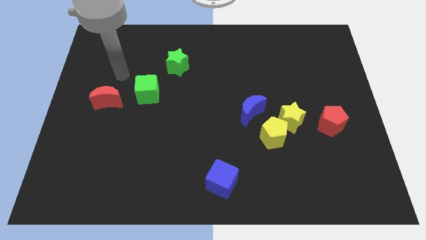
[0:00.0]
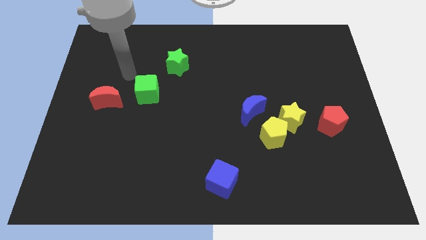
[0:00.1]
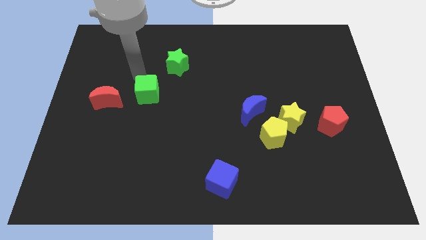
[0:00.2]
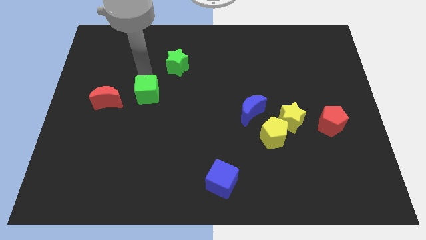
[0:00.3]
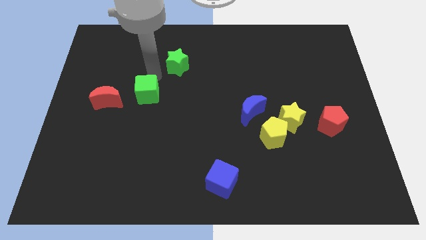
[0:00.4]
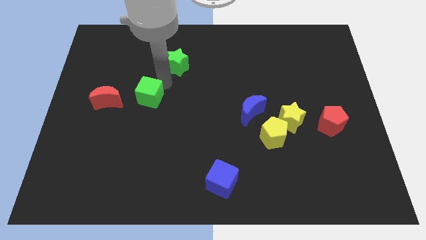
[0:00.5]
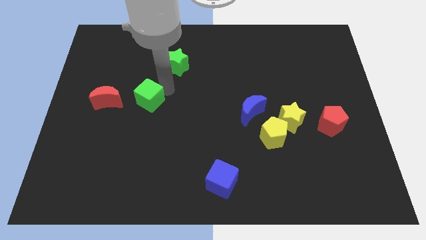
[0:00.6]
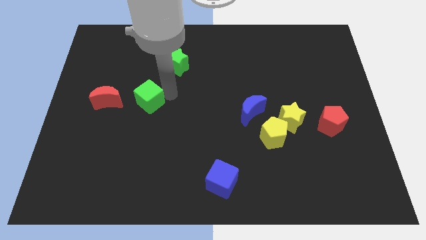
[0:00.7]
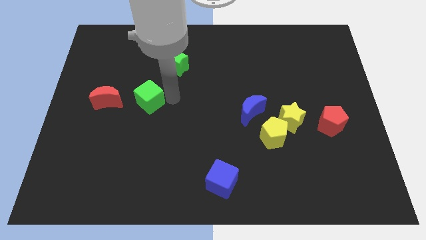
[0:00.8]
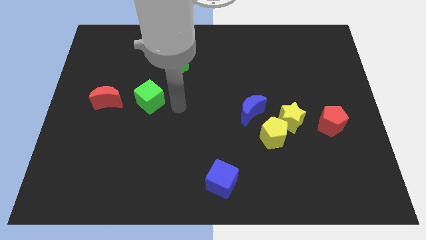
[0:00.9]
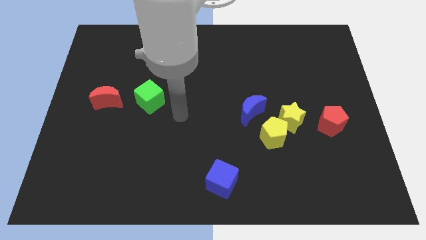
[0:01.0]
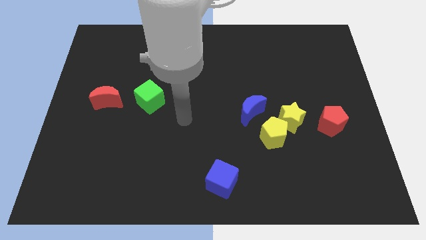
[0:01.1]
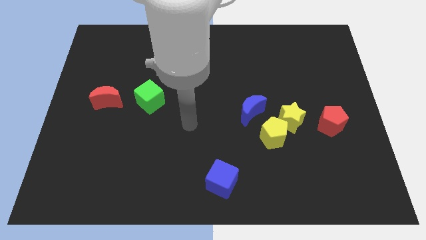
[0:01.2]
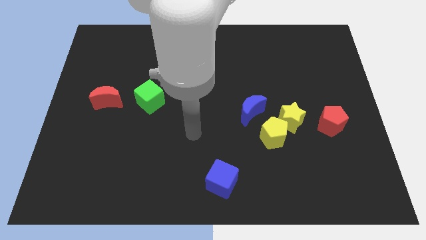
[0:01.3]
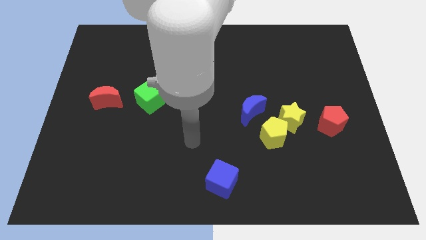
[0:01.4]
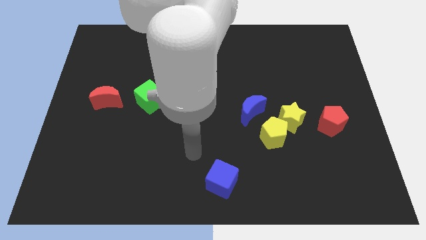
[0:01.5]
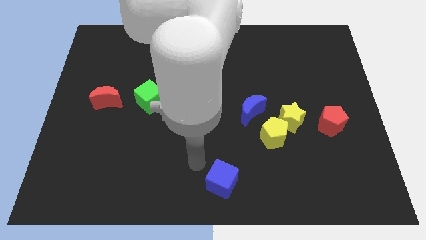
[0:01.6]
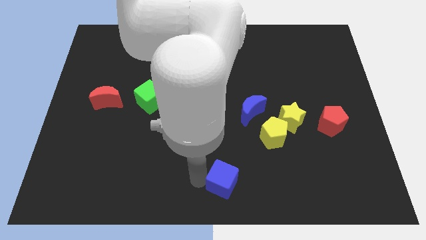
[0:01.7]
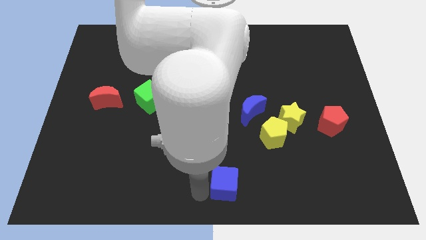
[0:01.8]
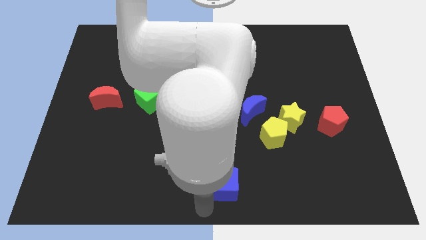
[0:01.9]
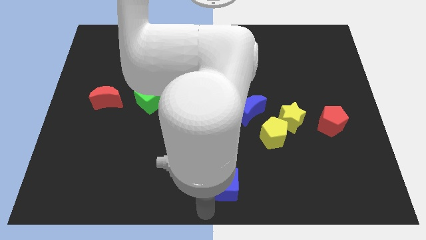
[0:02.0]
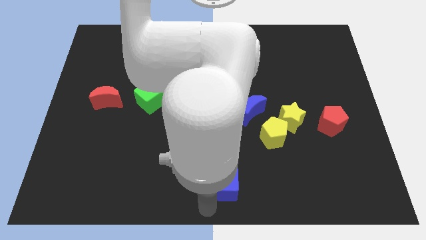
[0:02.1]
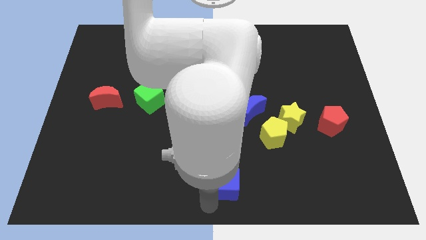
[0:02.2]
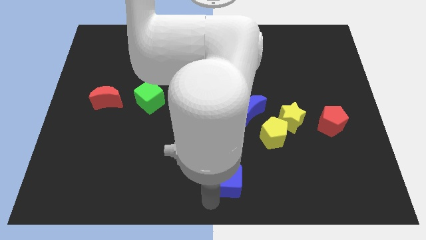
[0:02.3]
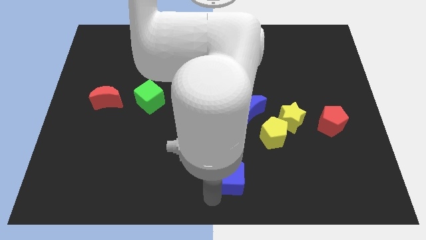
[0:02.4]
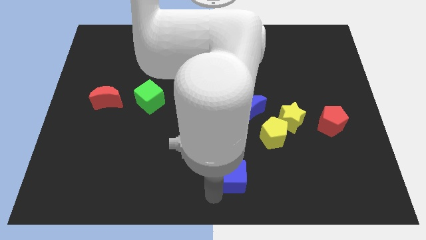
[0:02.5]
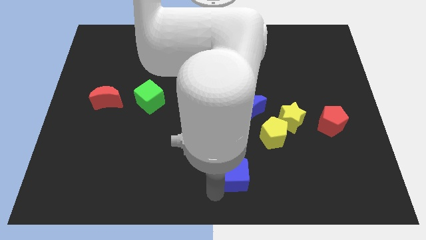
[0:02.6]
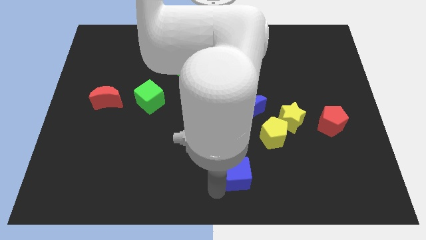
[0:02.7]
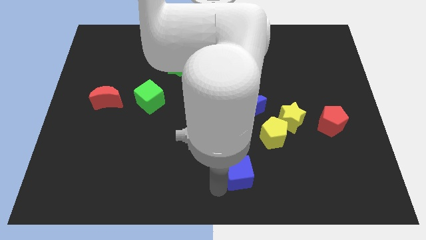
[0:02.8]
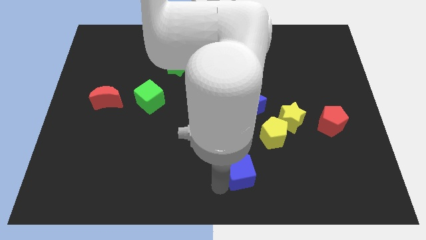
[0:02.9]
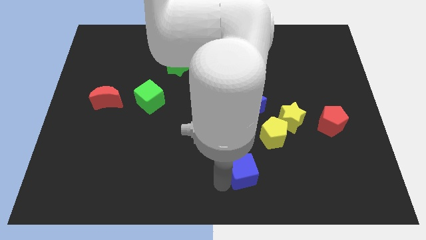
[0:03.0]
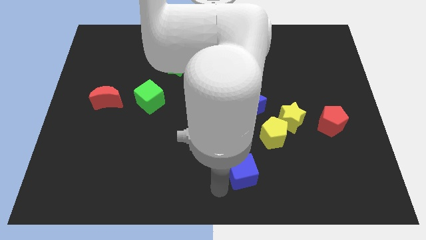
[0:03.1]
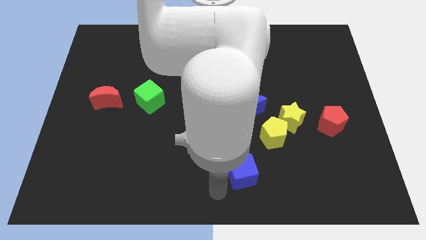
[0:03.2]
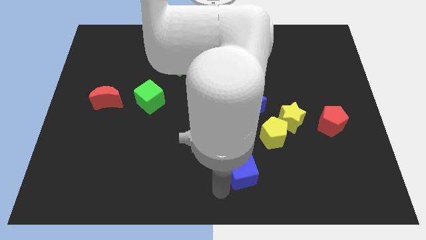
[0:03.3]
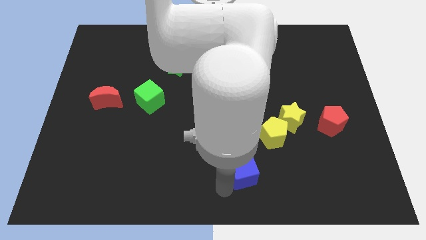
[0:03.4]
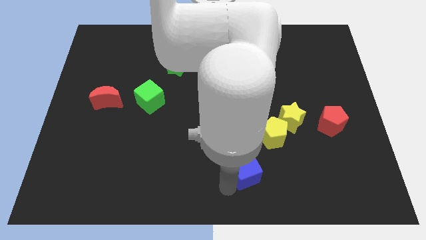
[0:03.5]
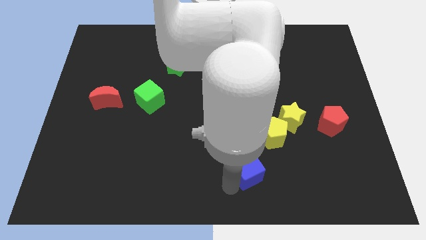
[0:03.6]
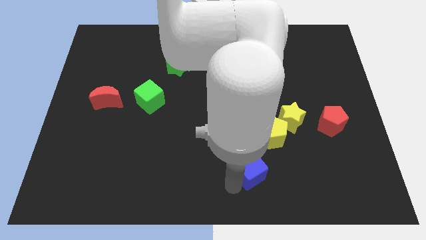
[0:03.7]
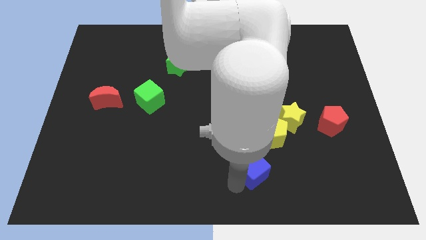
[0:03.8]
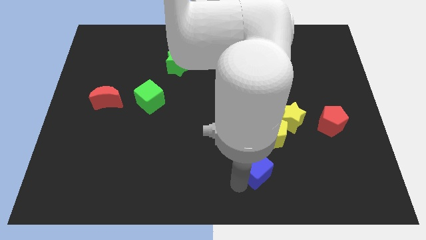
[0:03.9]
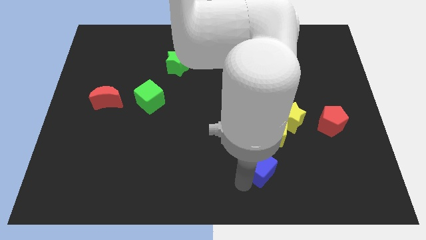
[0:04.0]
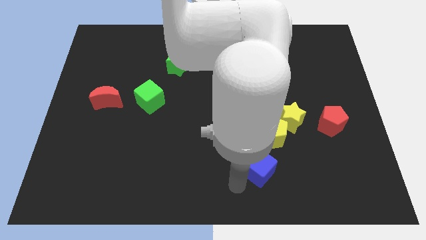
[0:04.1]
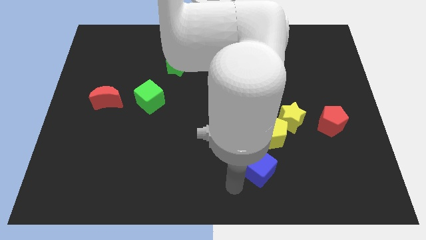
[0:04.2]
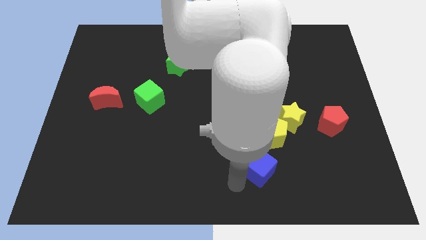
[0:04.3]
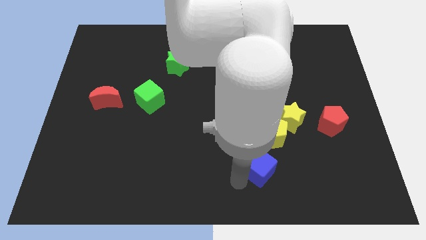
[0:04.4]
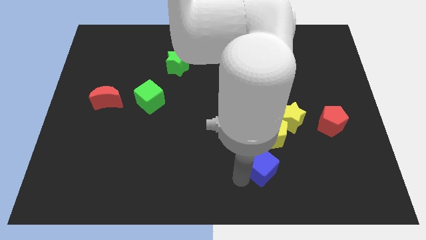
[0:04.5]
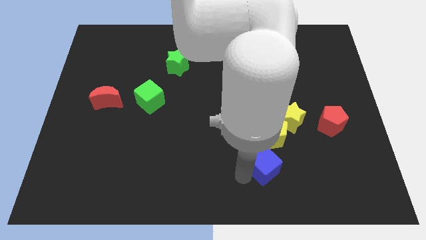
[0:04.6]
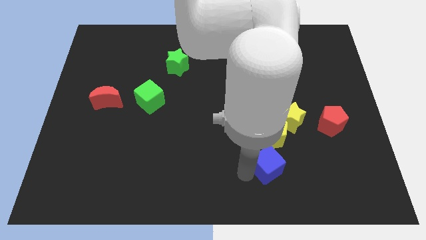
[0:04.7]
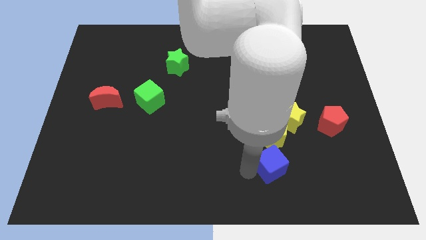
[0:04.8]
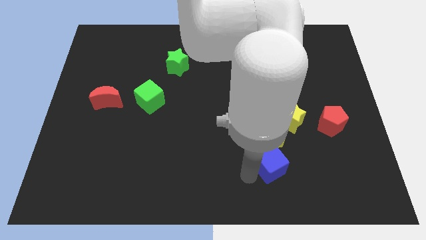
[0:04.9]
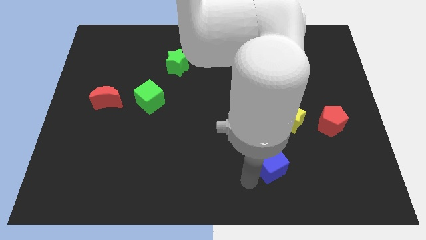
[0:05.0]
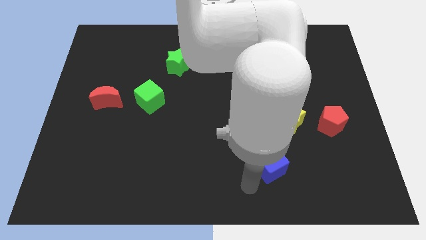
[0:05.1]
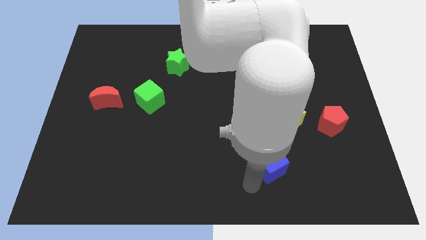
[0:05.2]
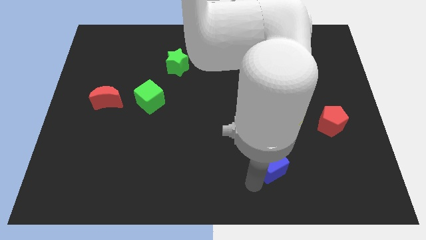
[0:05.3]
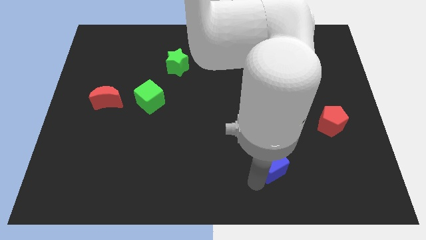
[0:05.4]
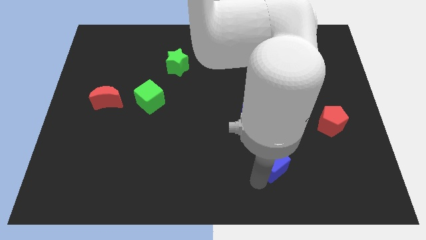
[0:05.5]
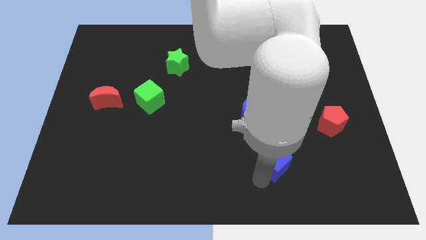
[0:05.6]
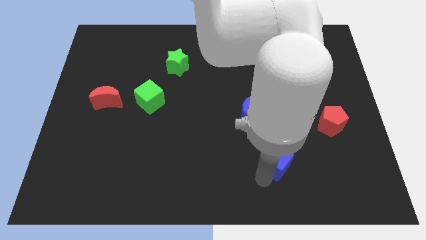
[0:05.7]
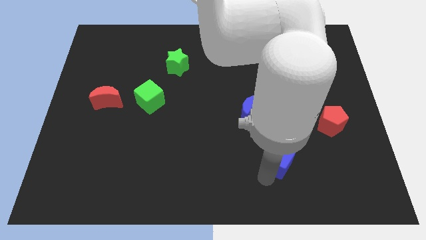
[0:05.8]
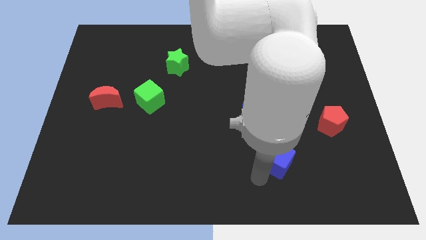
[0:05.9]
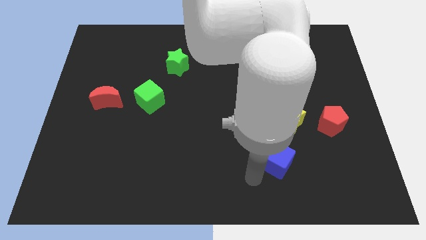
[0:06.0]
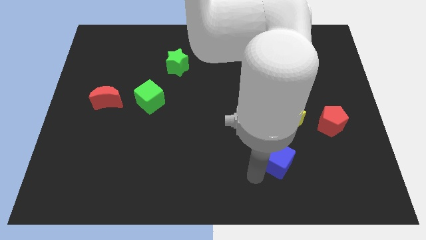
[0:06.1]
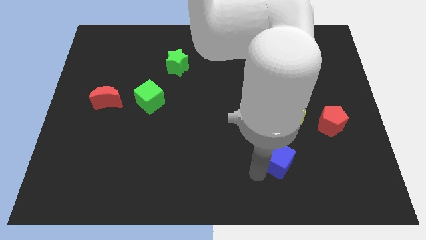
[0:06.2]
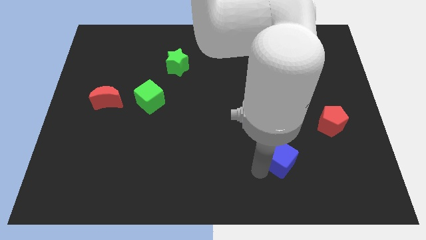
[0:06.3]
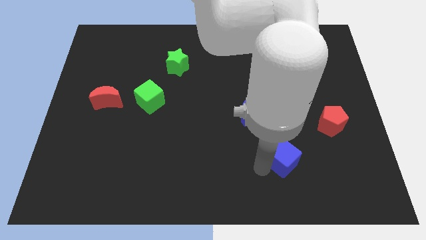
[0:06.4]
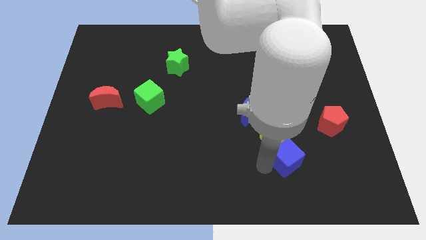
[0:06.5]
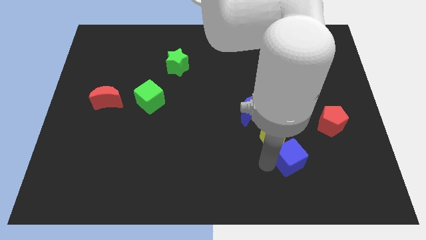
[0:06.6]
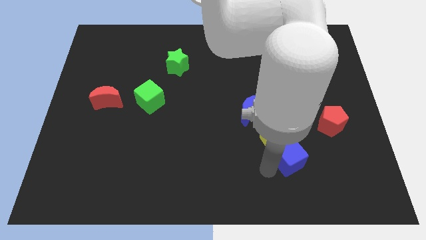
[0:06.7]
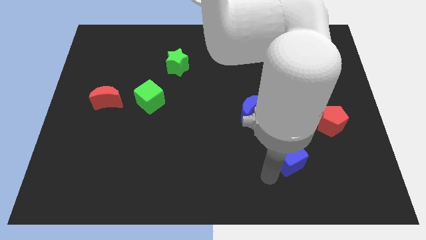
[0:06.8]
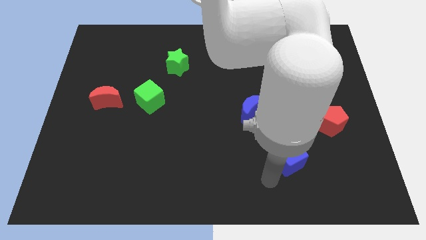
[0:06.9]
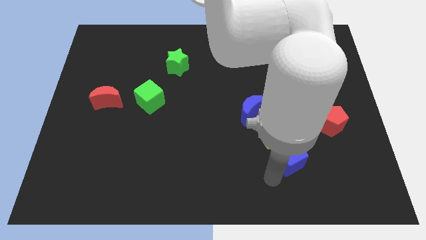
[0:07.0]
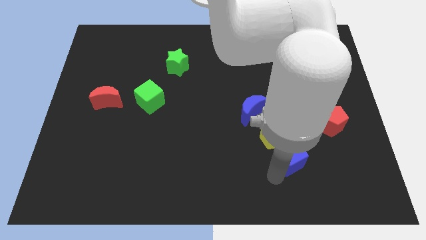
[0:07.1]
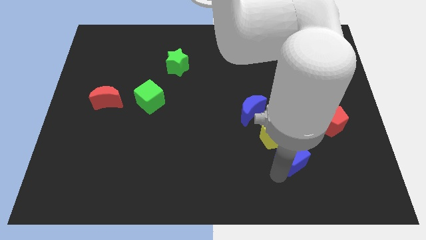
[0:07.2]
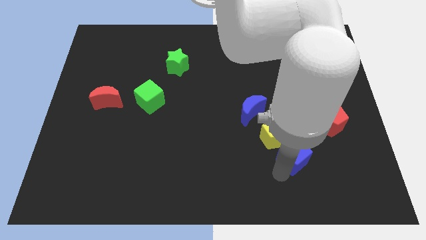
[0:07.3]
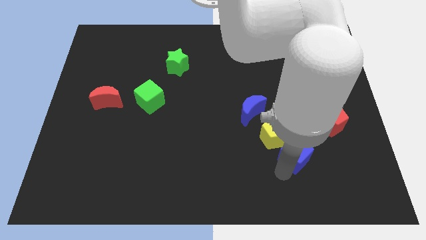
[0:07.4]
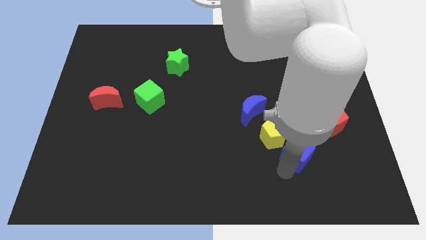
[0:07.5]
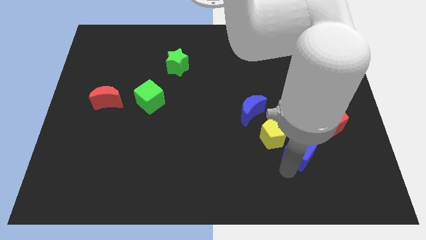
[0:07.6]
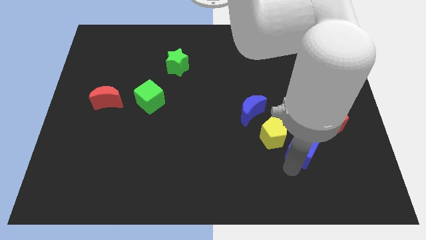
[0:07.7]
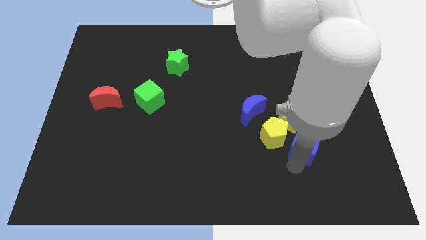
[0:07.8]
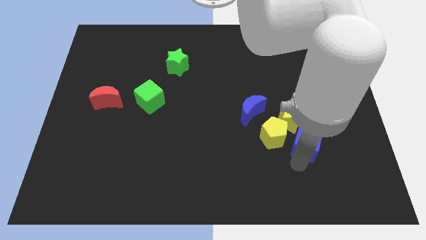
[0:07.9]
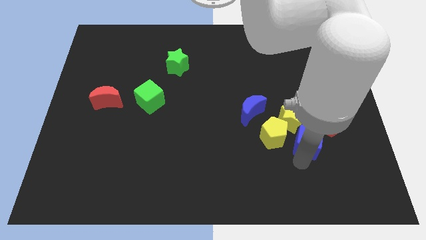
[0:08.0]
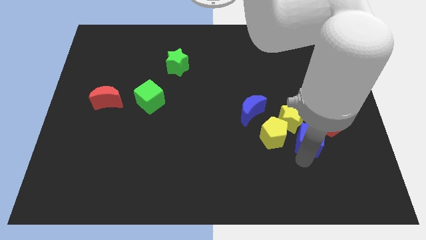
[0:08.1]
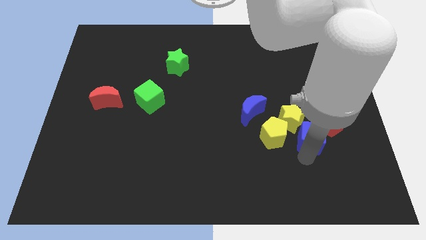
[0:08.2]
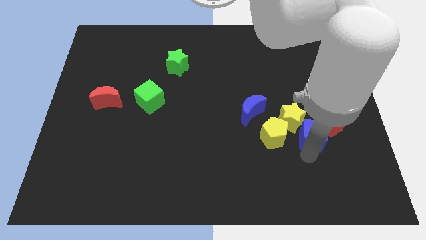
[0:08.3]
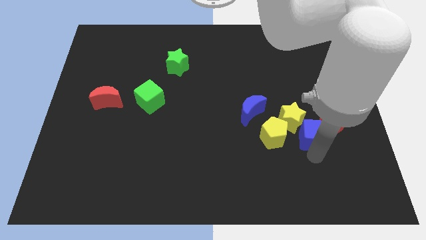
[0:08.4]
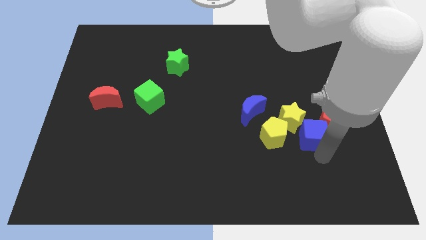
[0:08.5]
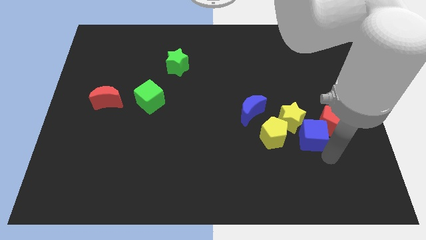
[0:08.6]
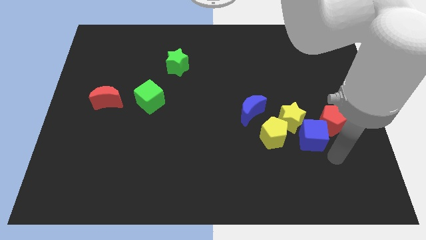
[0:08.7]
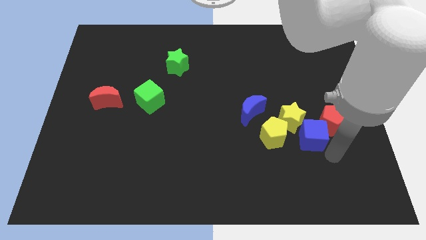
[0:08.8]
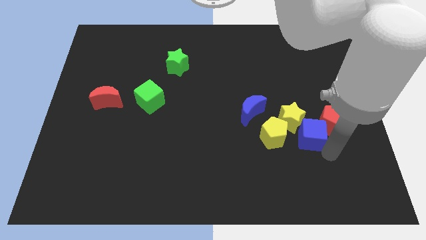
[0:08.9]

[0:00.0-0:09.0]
move the blue cube to the yellow star
